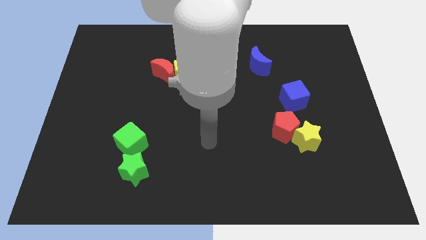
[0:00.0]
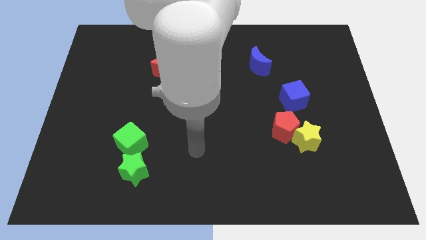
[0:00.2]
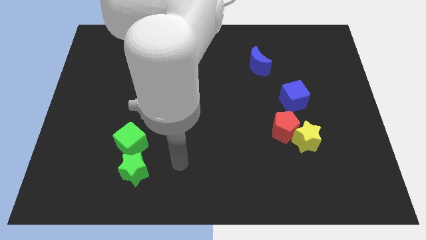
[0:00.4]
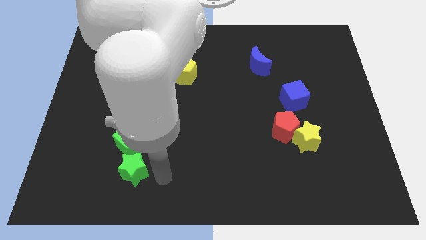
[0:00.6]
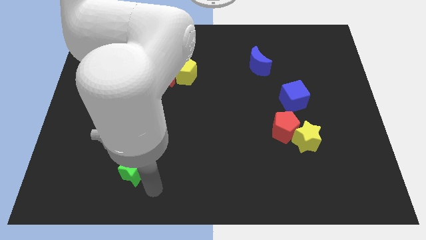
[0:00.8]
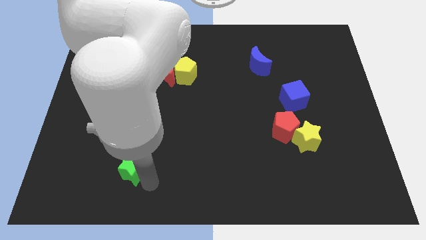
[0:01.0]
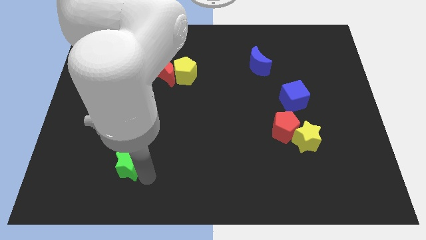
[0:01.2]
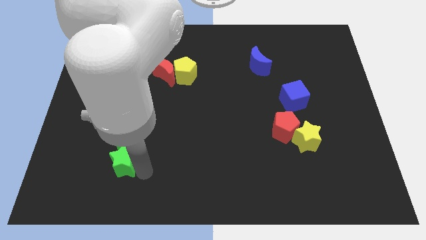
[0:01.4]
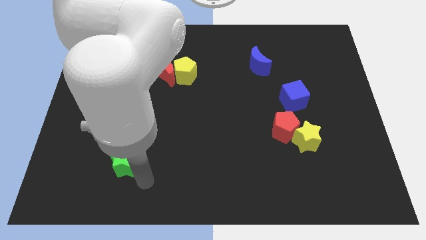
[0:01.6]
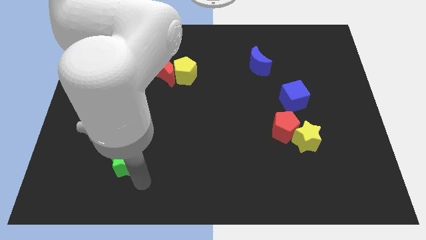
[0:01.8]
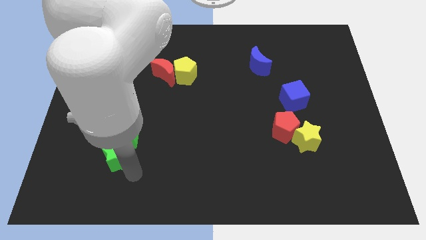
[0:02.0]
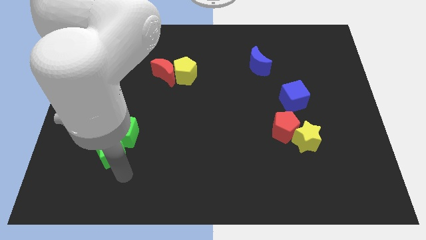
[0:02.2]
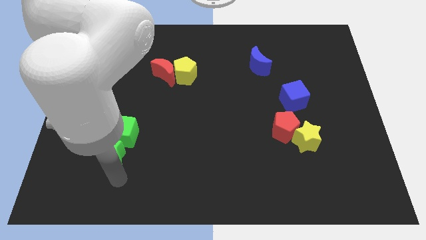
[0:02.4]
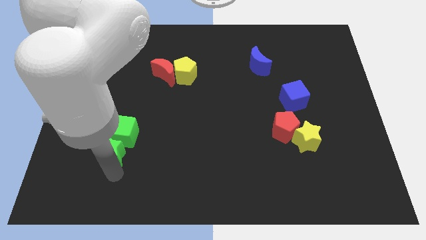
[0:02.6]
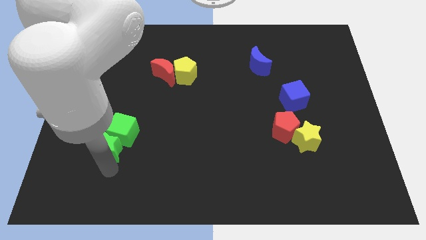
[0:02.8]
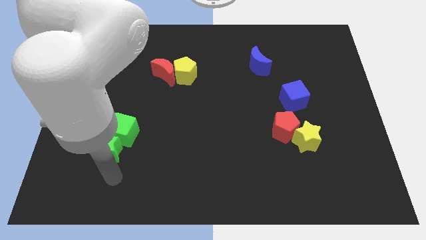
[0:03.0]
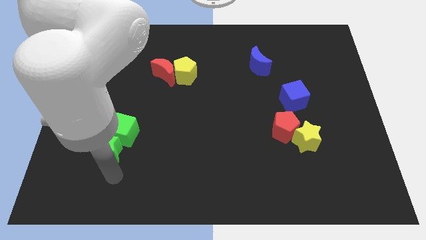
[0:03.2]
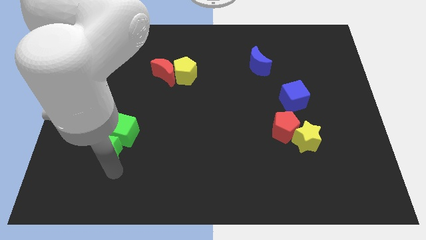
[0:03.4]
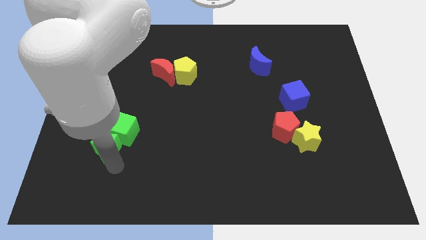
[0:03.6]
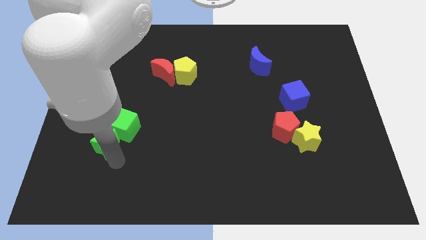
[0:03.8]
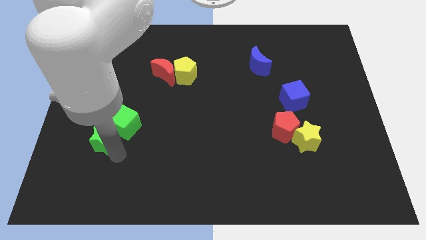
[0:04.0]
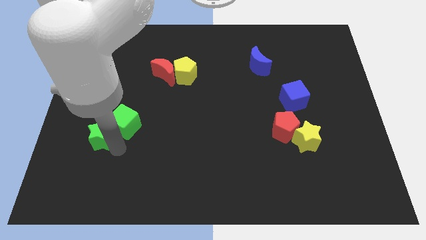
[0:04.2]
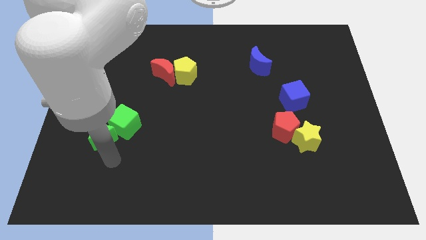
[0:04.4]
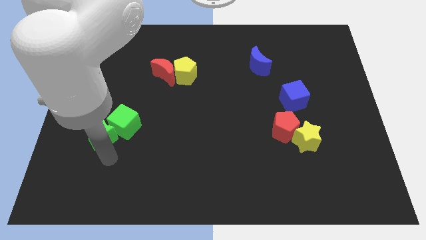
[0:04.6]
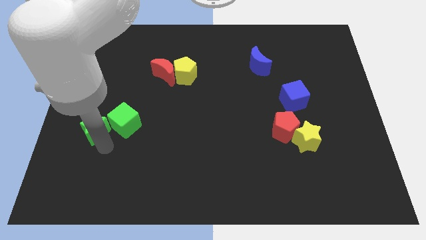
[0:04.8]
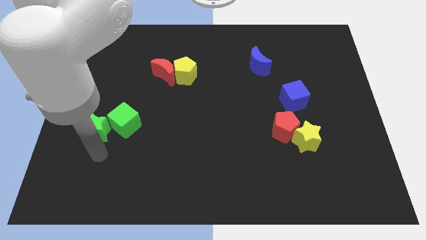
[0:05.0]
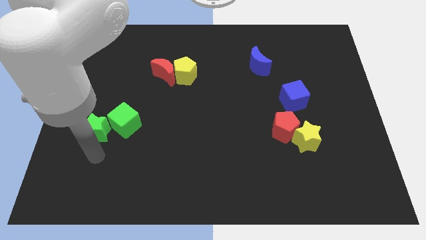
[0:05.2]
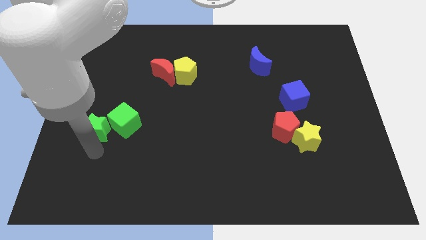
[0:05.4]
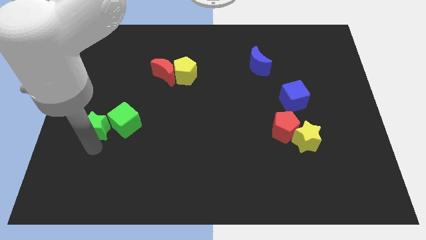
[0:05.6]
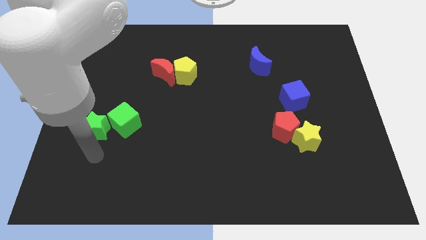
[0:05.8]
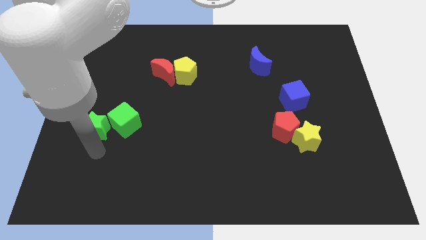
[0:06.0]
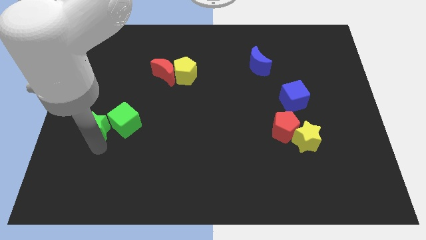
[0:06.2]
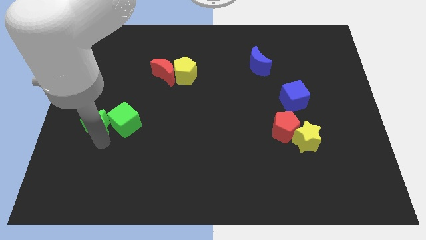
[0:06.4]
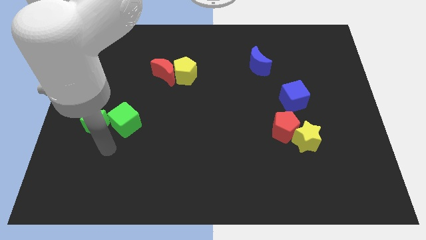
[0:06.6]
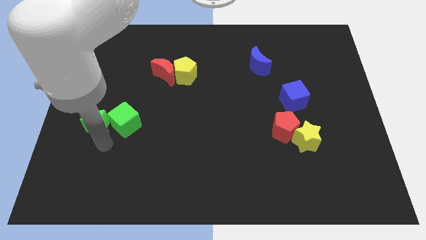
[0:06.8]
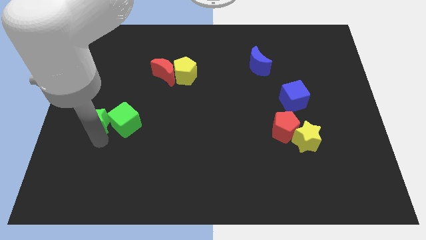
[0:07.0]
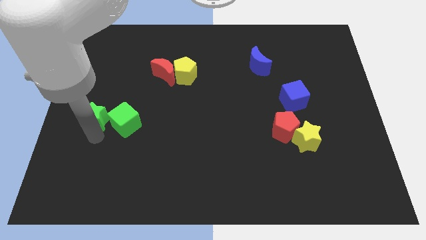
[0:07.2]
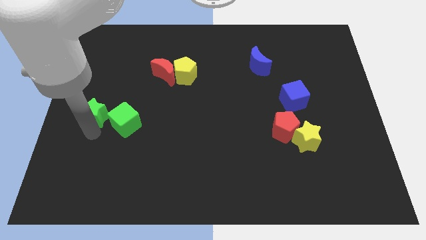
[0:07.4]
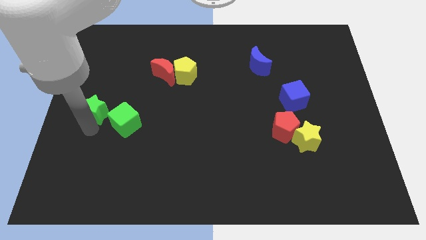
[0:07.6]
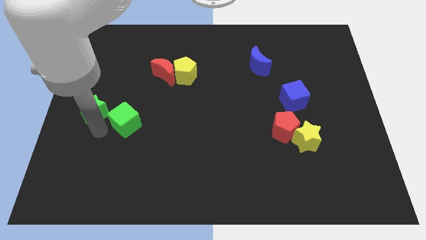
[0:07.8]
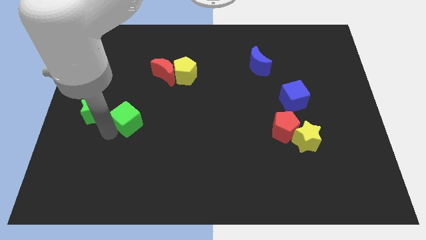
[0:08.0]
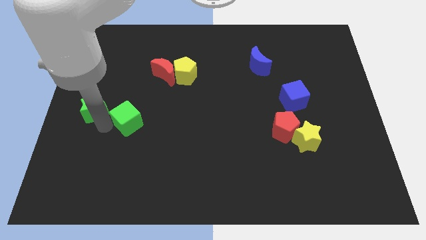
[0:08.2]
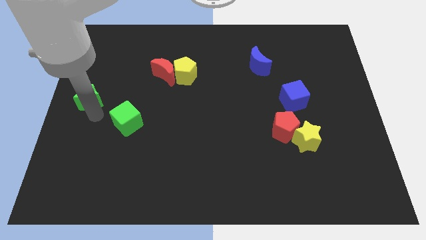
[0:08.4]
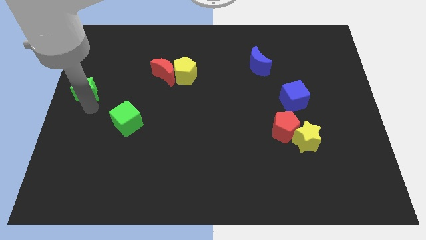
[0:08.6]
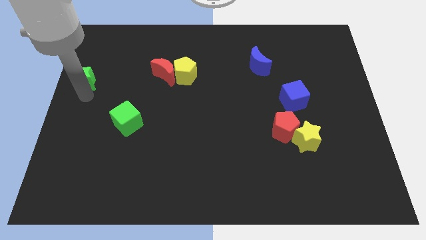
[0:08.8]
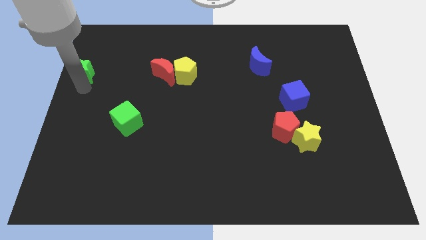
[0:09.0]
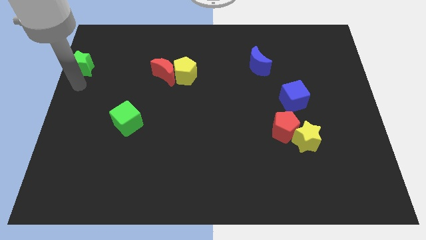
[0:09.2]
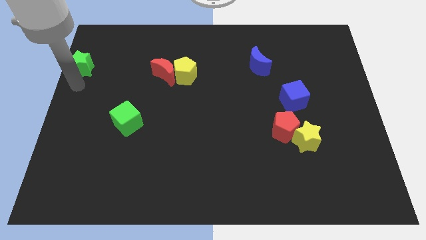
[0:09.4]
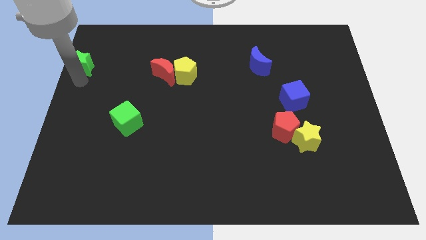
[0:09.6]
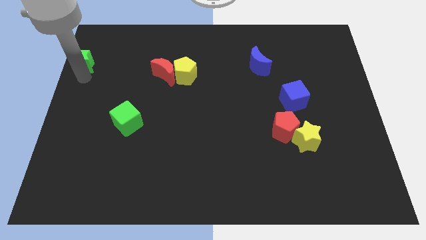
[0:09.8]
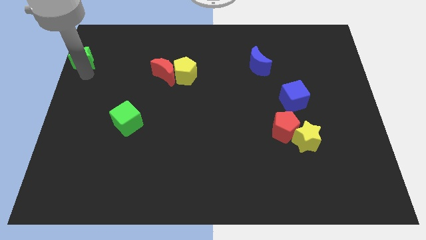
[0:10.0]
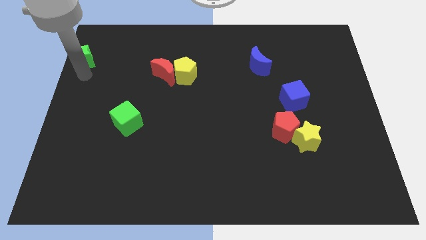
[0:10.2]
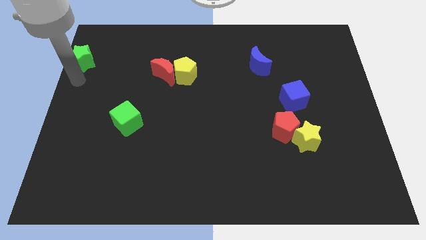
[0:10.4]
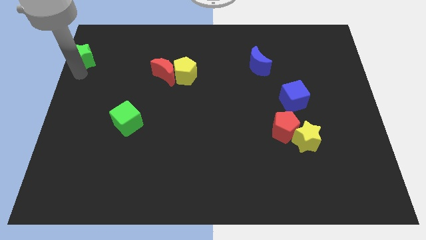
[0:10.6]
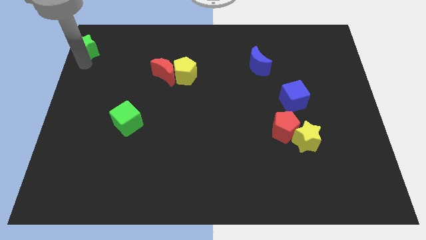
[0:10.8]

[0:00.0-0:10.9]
slide the green star to the top left corner

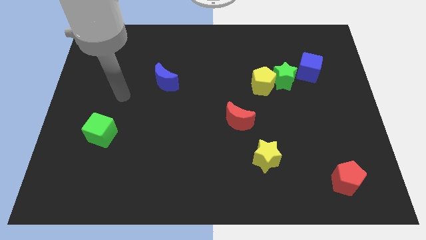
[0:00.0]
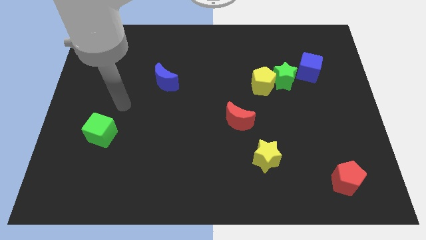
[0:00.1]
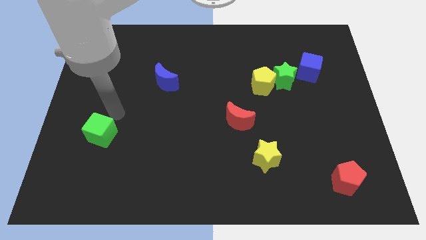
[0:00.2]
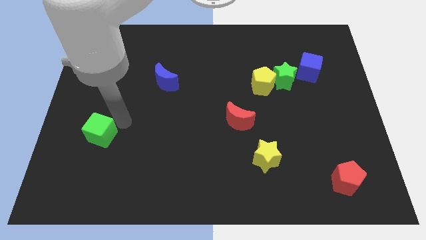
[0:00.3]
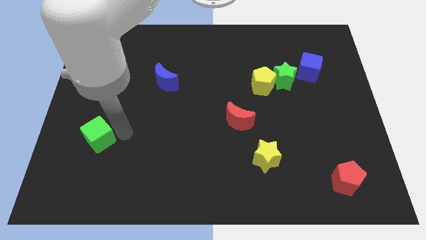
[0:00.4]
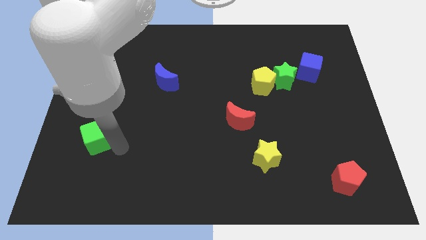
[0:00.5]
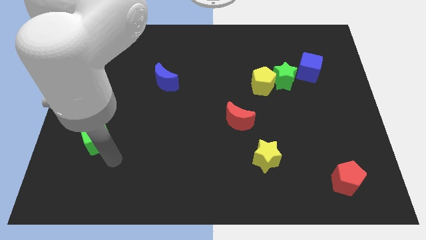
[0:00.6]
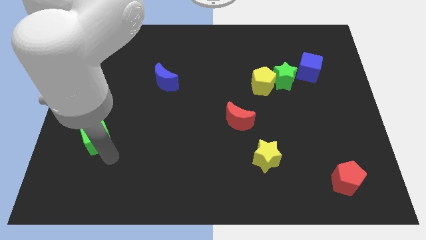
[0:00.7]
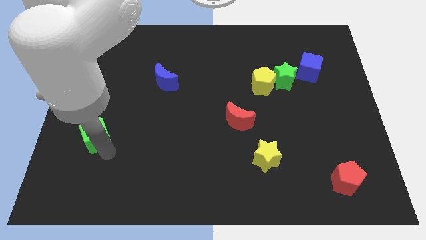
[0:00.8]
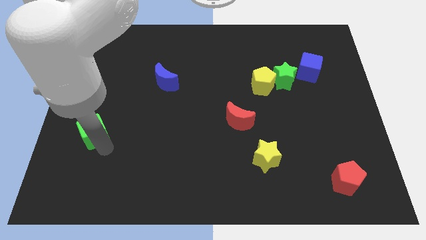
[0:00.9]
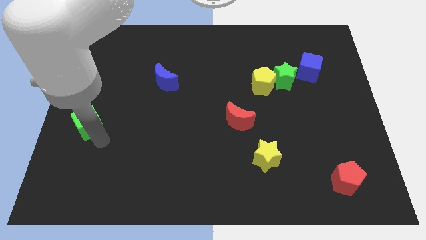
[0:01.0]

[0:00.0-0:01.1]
put the green cube to the left side

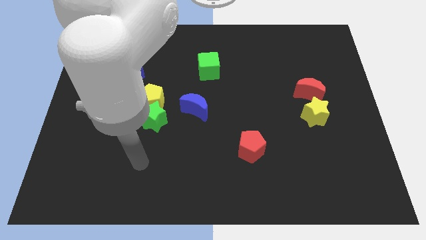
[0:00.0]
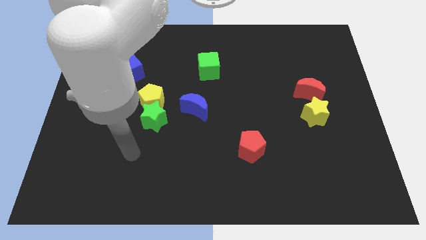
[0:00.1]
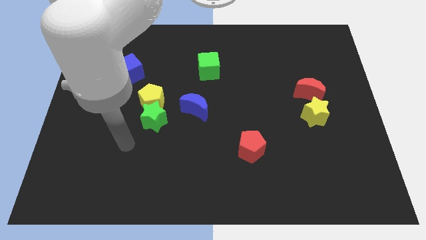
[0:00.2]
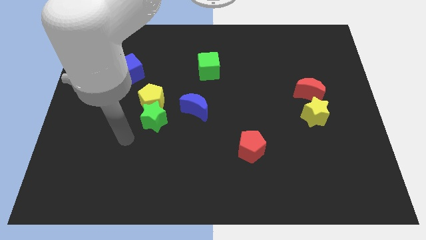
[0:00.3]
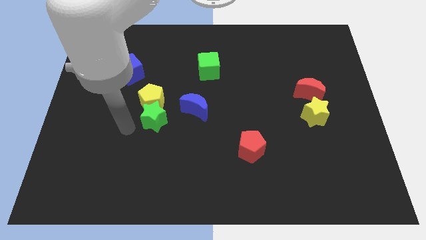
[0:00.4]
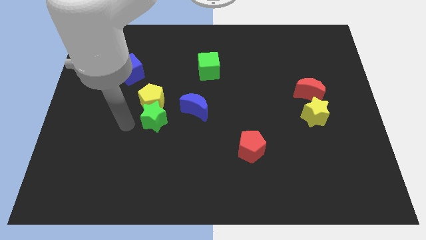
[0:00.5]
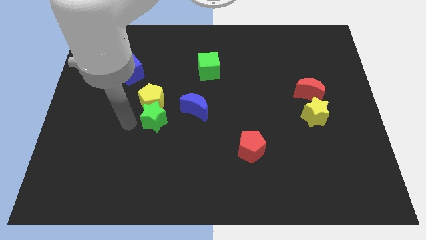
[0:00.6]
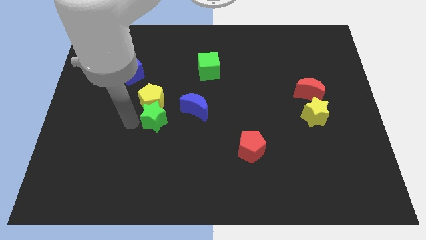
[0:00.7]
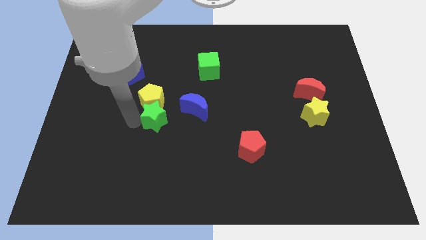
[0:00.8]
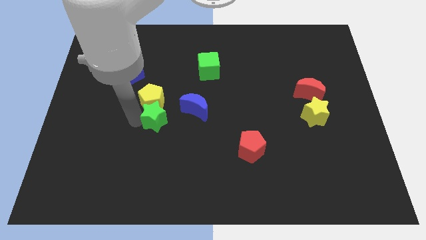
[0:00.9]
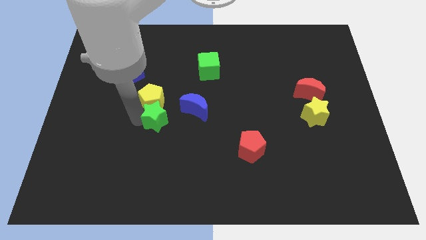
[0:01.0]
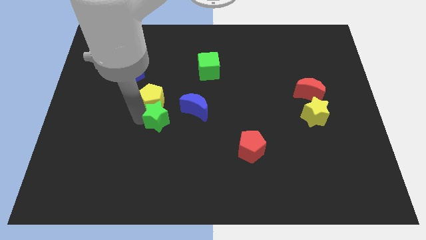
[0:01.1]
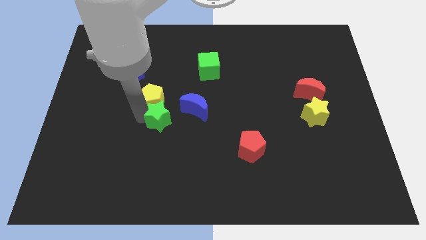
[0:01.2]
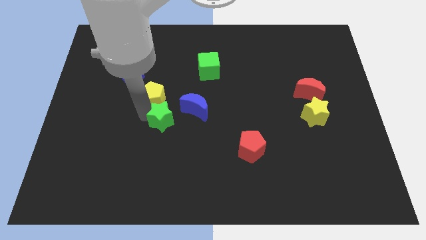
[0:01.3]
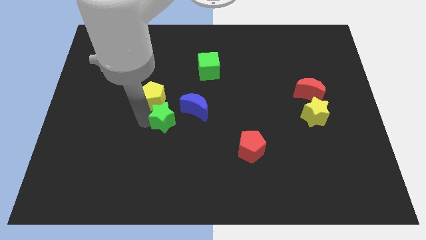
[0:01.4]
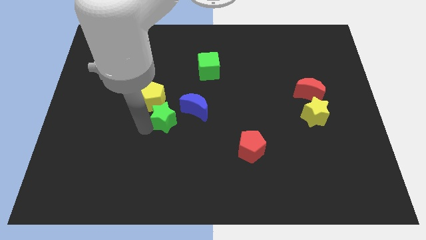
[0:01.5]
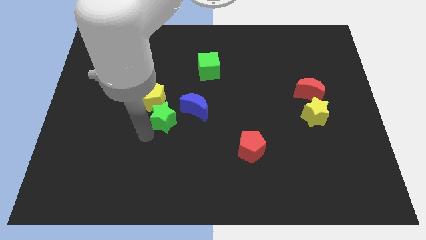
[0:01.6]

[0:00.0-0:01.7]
move the green star to the center
